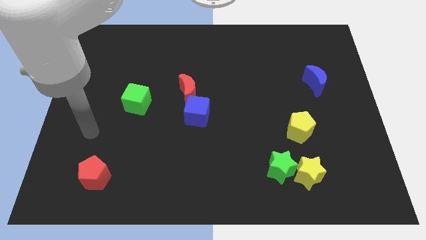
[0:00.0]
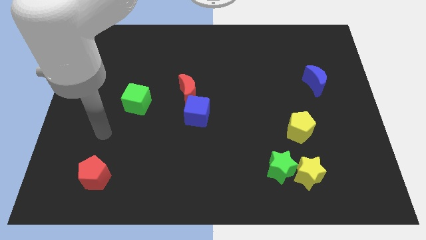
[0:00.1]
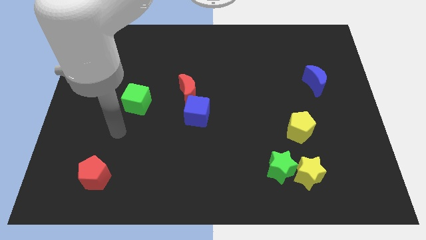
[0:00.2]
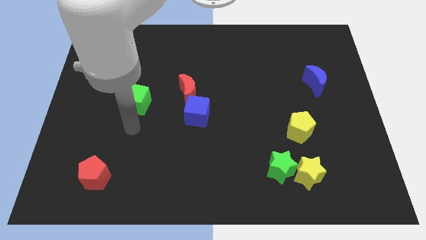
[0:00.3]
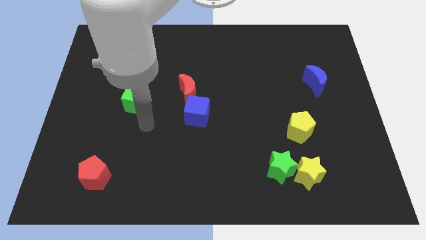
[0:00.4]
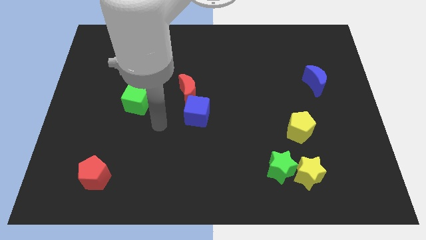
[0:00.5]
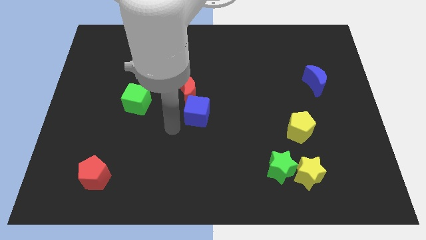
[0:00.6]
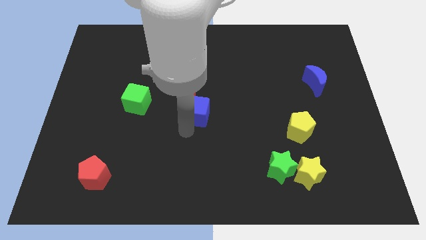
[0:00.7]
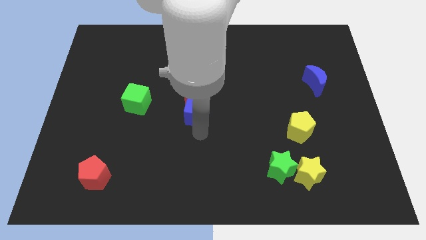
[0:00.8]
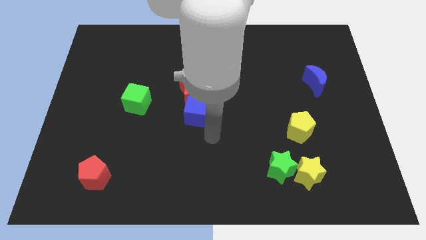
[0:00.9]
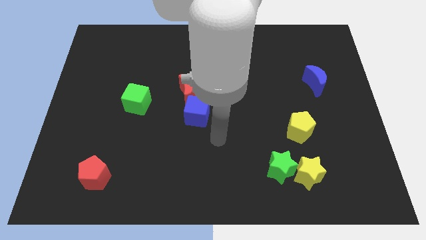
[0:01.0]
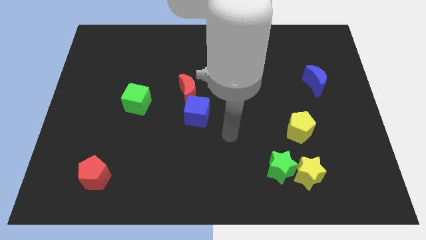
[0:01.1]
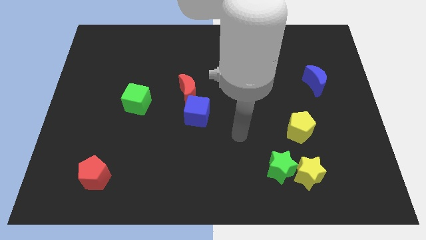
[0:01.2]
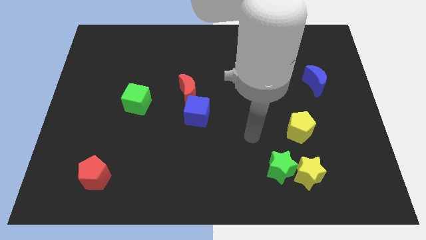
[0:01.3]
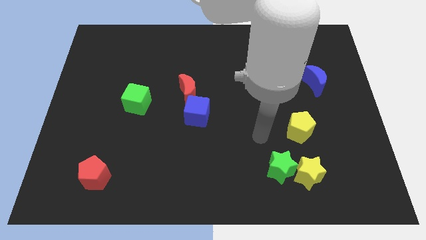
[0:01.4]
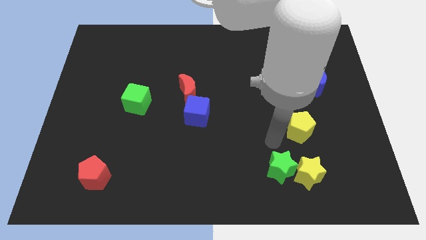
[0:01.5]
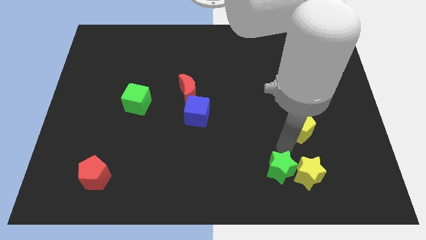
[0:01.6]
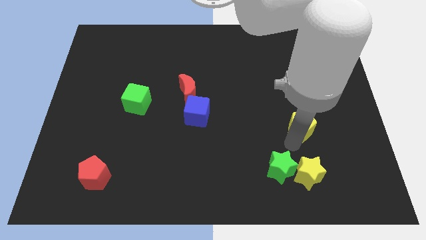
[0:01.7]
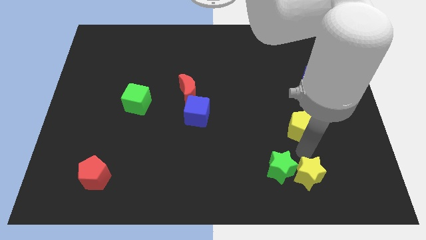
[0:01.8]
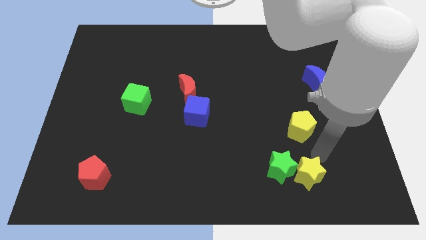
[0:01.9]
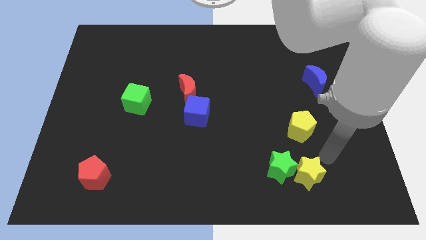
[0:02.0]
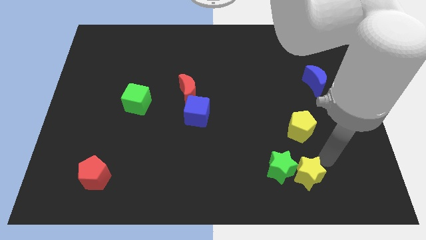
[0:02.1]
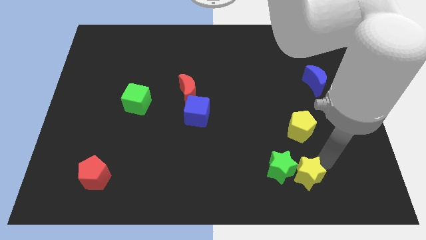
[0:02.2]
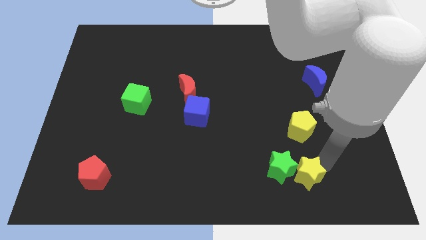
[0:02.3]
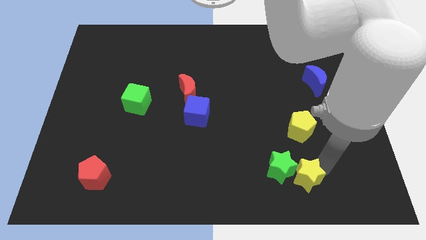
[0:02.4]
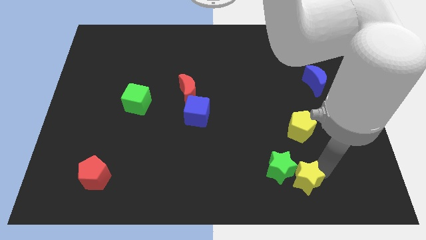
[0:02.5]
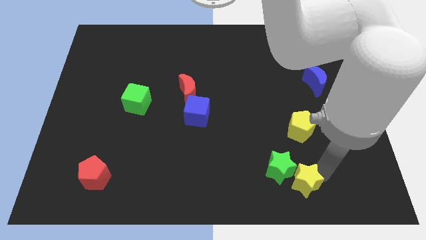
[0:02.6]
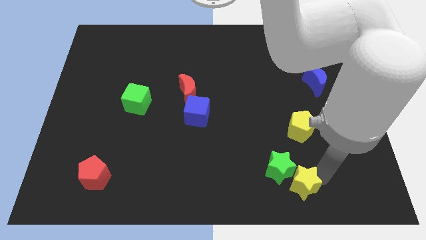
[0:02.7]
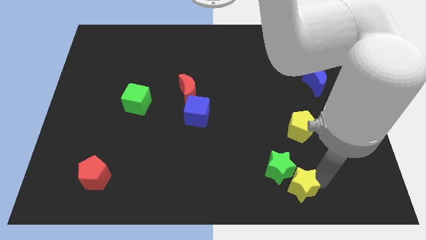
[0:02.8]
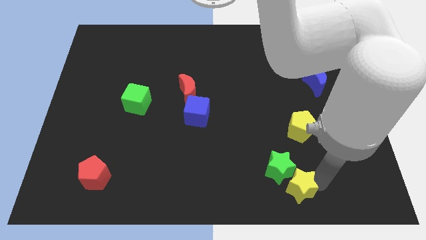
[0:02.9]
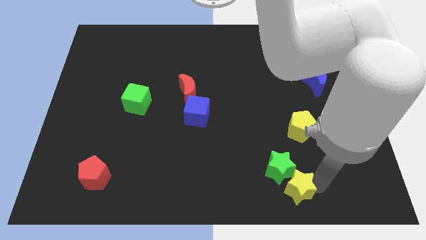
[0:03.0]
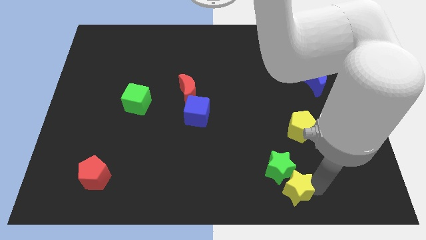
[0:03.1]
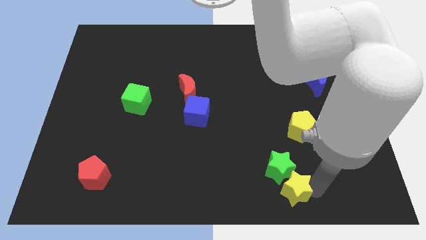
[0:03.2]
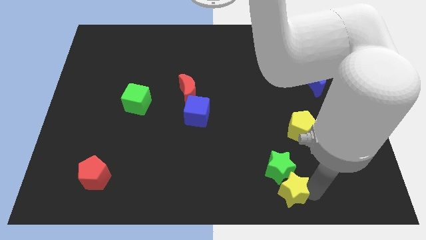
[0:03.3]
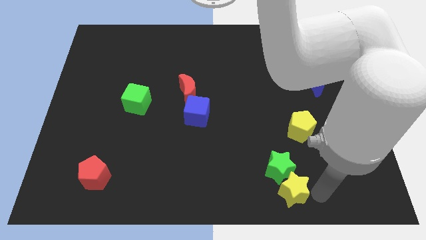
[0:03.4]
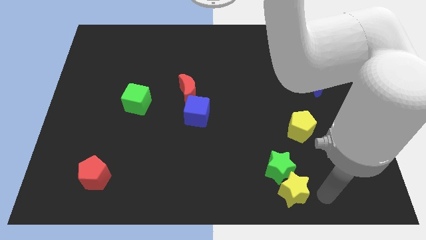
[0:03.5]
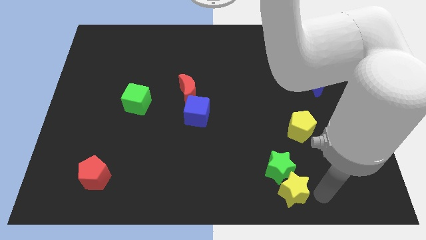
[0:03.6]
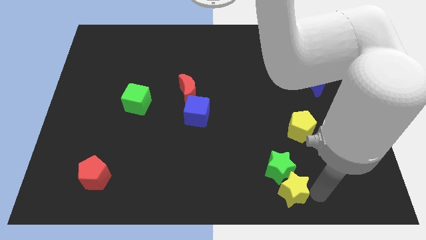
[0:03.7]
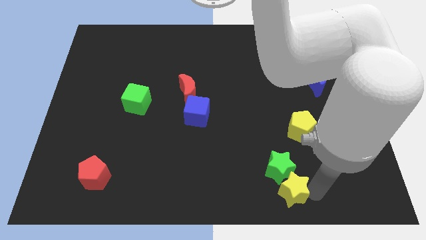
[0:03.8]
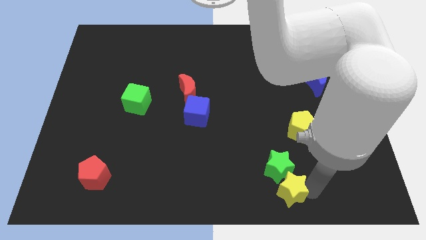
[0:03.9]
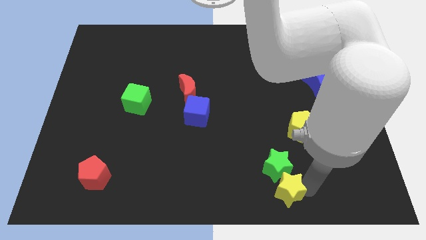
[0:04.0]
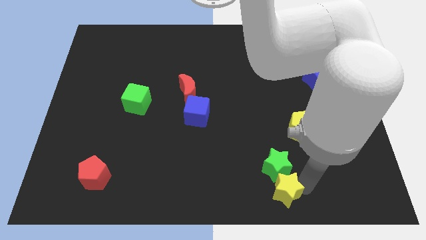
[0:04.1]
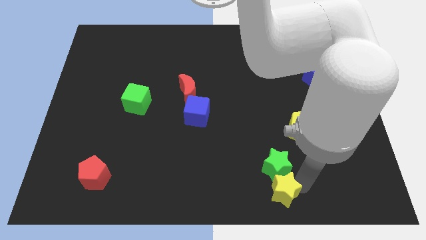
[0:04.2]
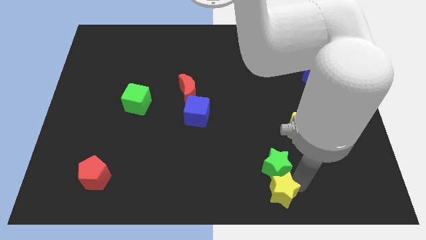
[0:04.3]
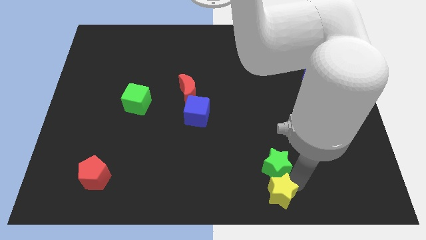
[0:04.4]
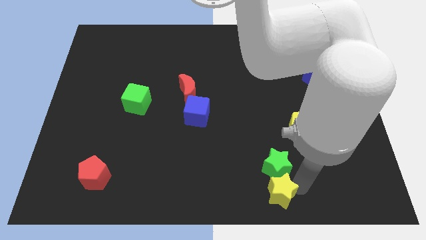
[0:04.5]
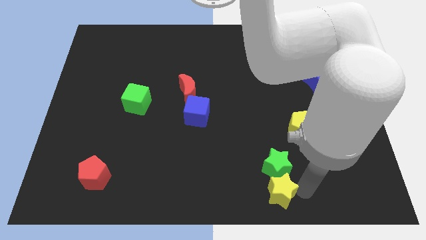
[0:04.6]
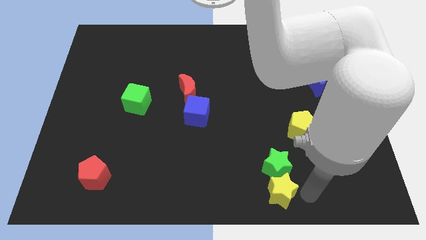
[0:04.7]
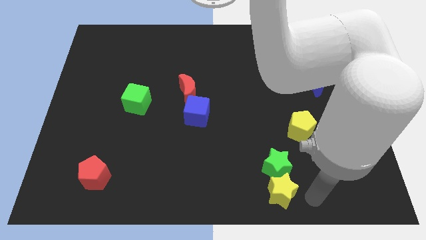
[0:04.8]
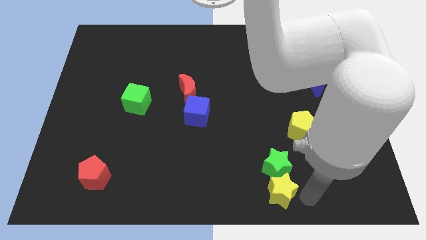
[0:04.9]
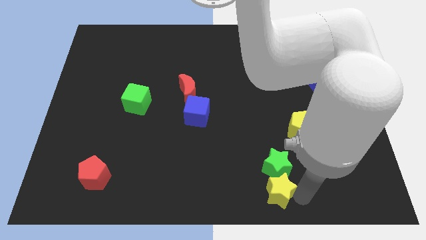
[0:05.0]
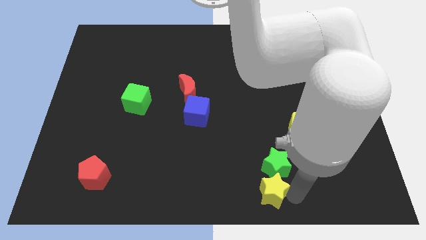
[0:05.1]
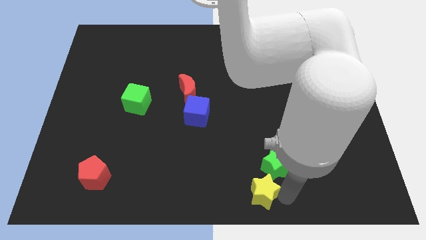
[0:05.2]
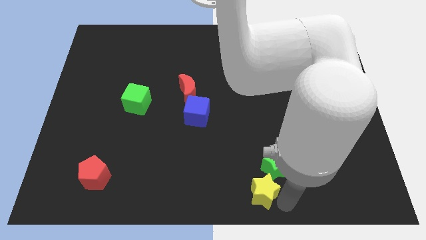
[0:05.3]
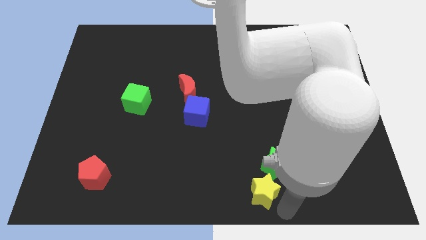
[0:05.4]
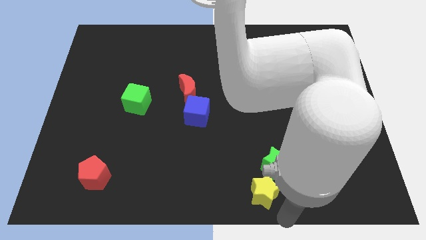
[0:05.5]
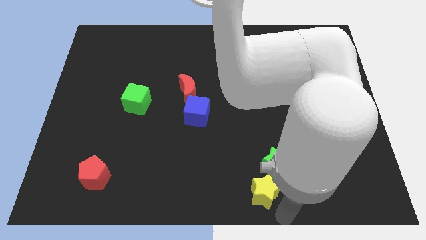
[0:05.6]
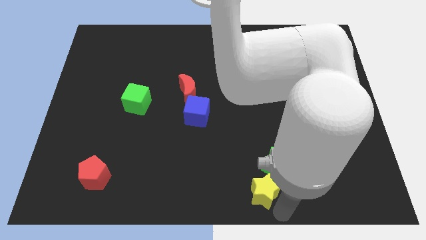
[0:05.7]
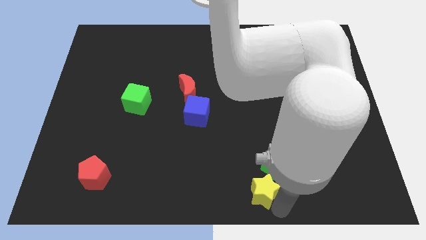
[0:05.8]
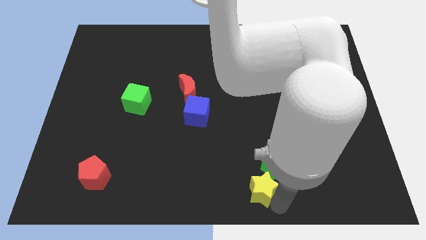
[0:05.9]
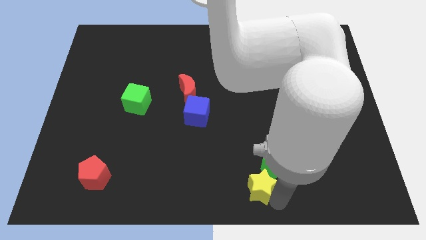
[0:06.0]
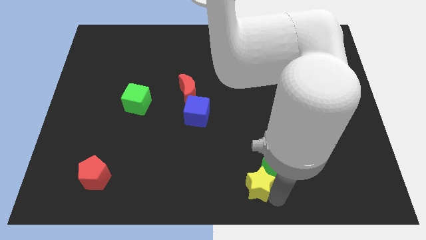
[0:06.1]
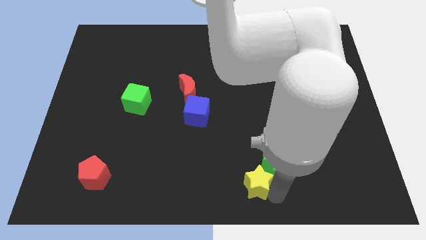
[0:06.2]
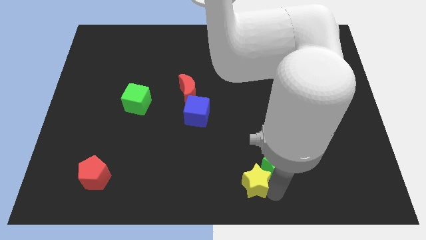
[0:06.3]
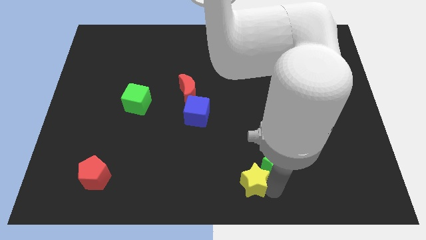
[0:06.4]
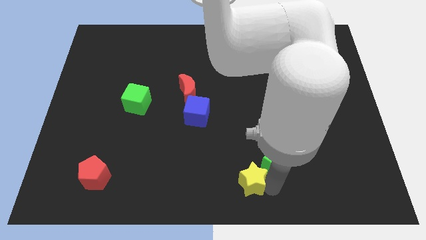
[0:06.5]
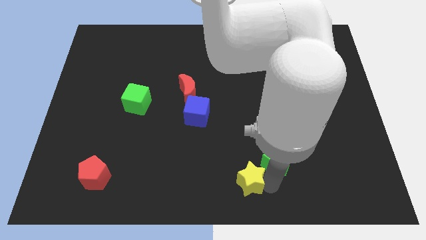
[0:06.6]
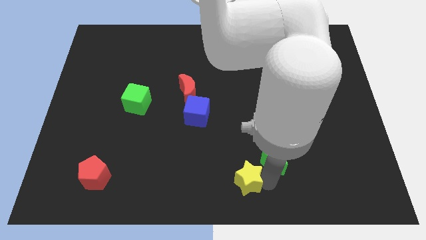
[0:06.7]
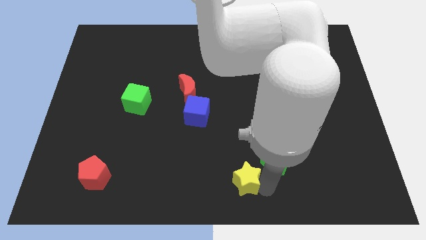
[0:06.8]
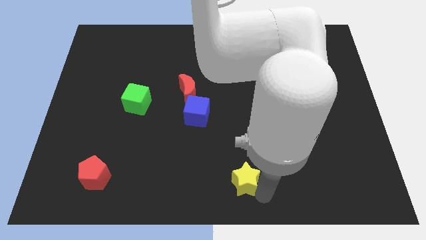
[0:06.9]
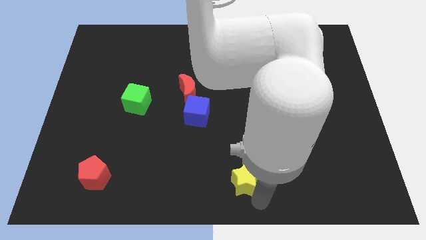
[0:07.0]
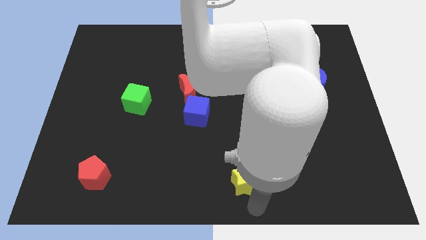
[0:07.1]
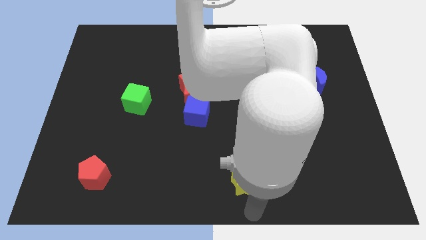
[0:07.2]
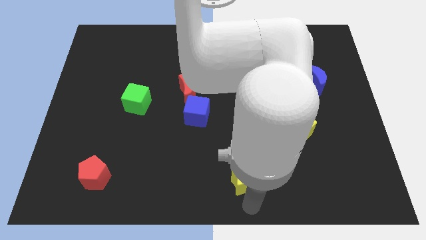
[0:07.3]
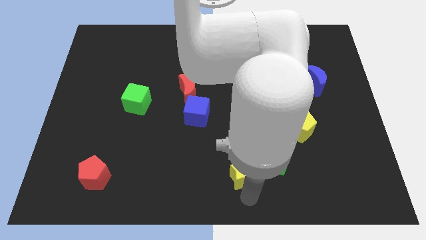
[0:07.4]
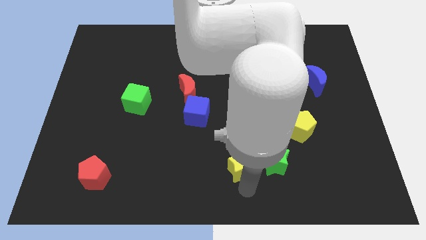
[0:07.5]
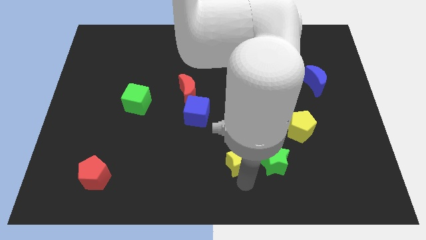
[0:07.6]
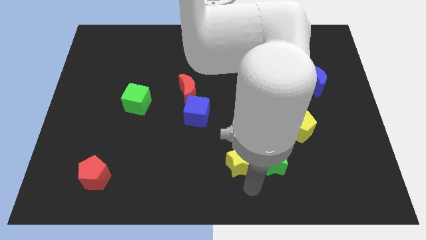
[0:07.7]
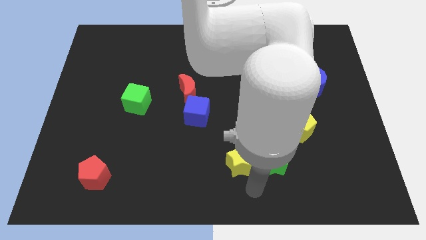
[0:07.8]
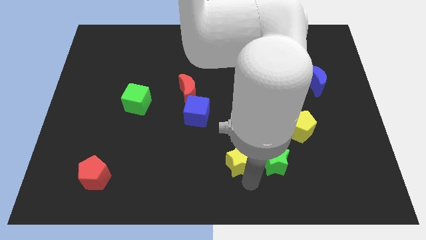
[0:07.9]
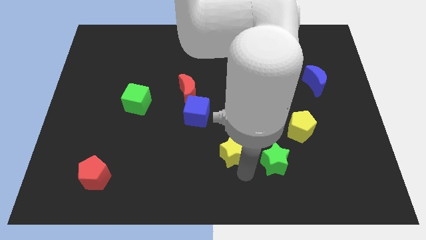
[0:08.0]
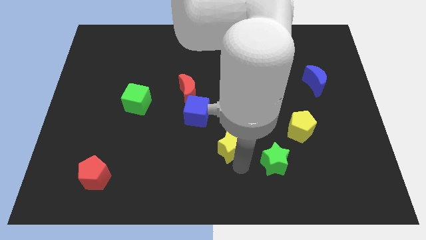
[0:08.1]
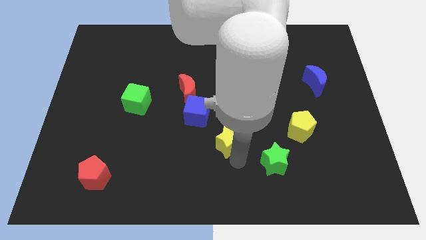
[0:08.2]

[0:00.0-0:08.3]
move the yellow star to the middle of the board
